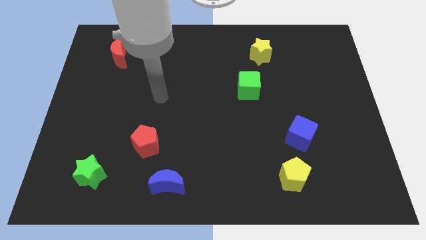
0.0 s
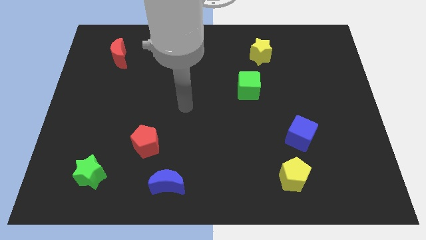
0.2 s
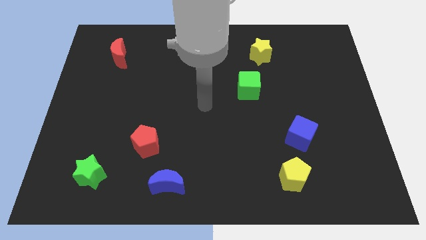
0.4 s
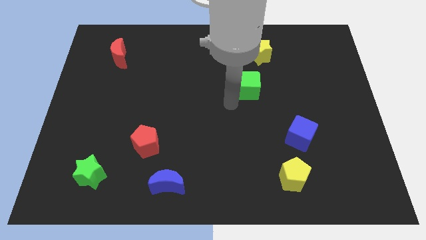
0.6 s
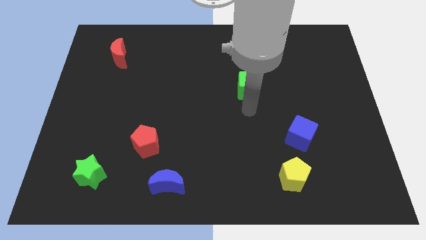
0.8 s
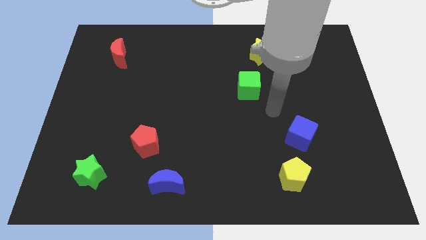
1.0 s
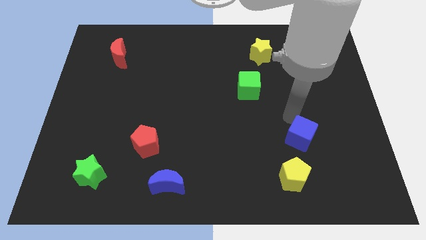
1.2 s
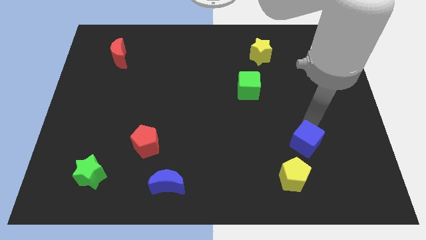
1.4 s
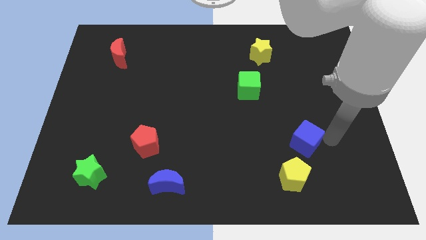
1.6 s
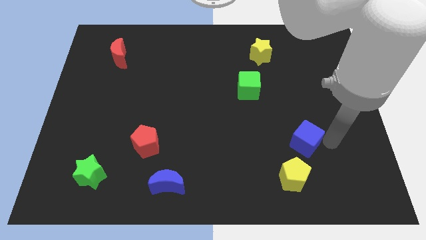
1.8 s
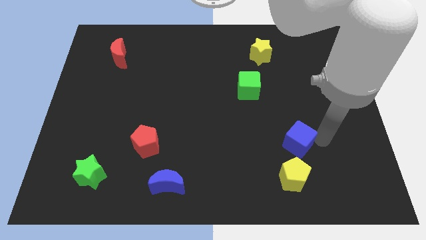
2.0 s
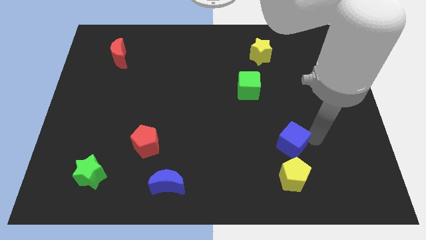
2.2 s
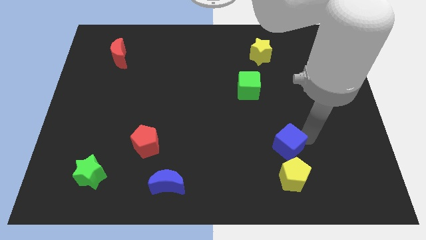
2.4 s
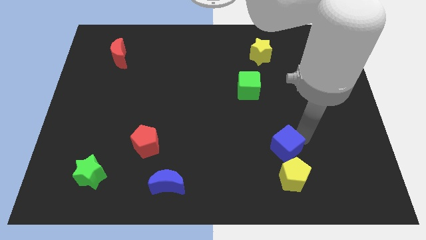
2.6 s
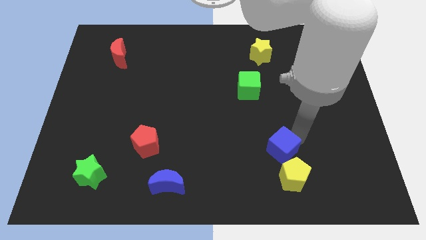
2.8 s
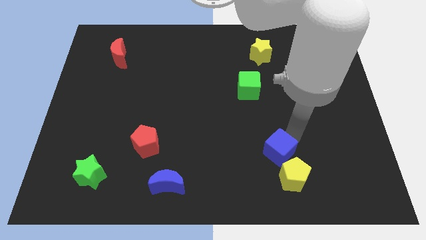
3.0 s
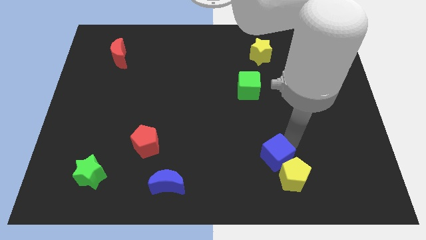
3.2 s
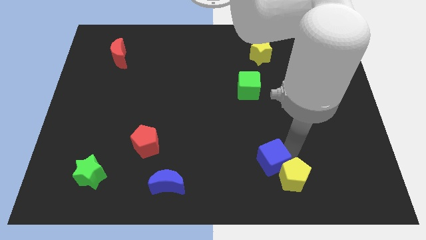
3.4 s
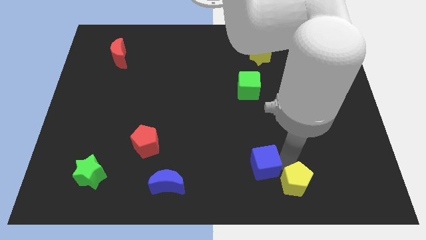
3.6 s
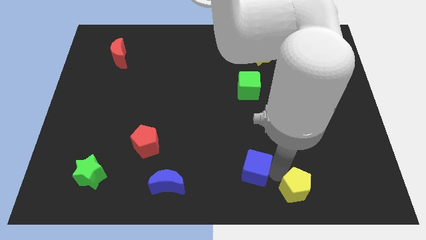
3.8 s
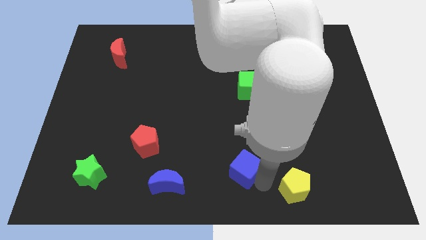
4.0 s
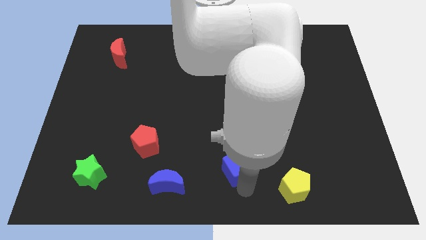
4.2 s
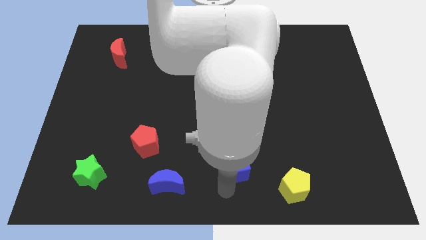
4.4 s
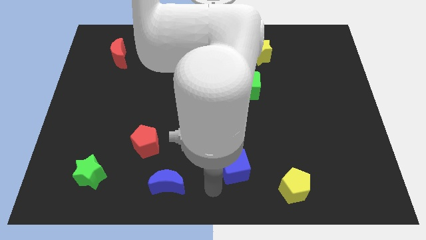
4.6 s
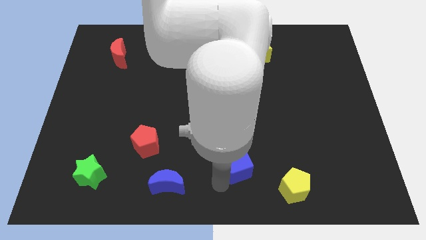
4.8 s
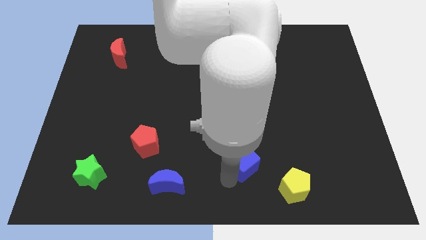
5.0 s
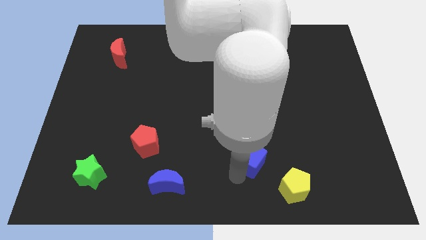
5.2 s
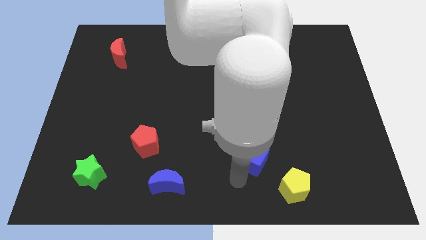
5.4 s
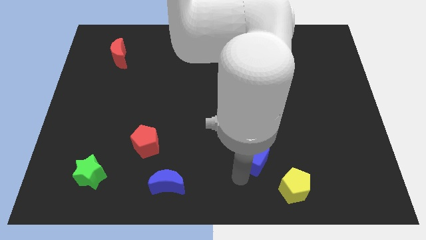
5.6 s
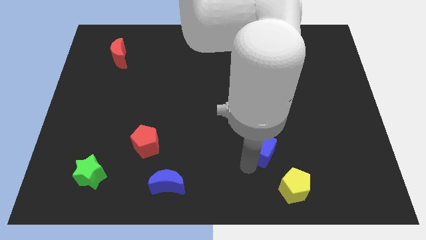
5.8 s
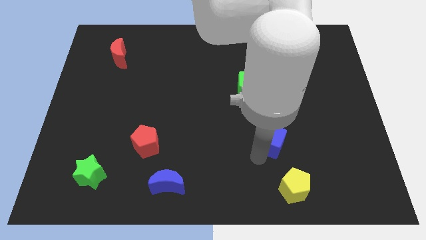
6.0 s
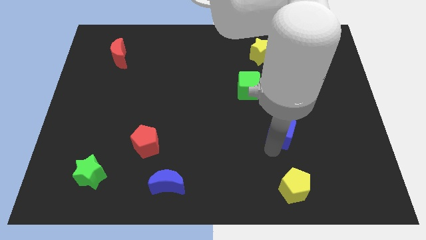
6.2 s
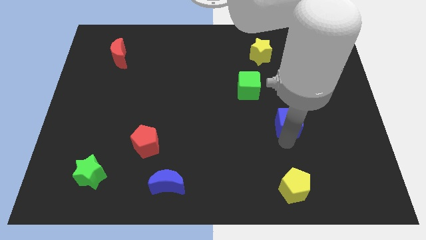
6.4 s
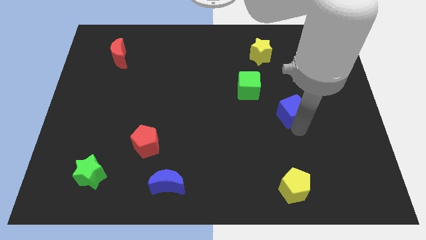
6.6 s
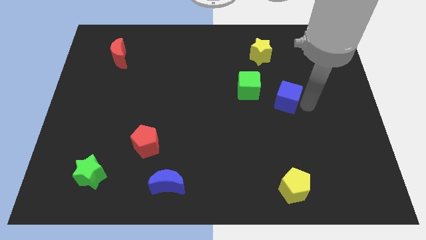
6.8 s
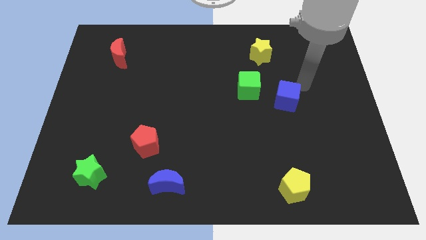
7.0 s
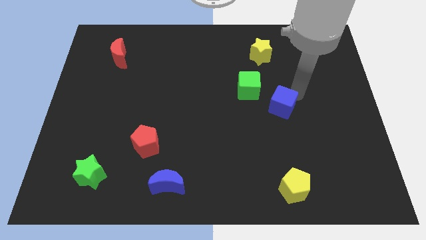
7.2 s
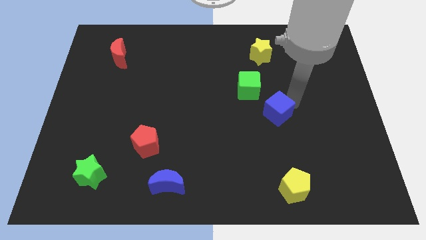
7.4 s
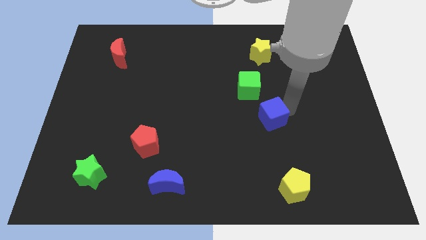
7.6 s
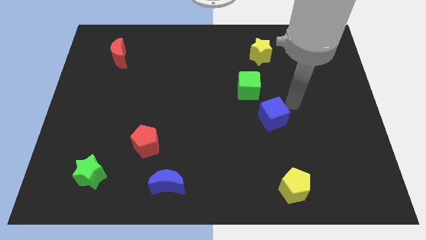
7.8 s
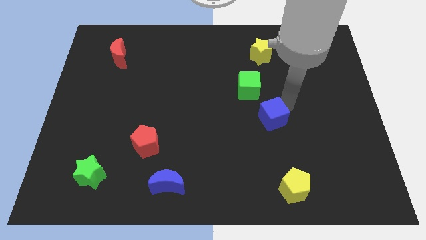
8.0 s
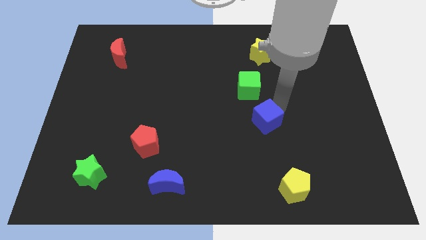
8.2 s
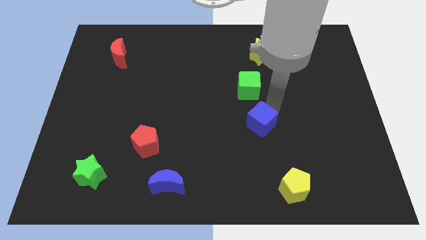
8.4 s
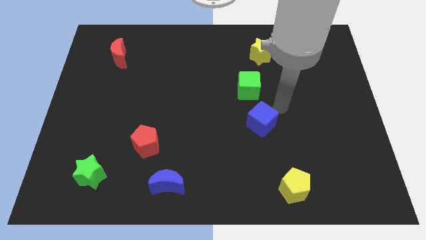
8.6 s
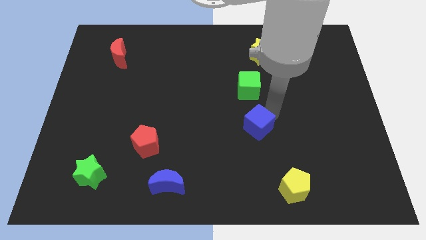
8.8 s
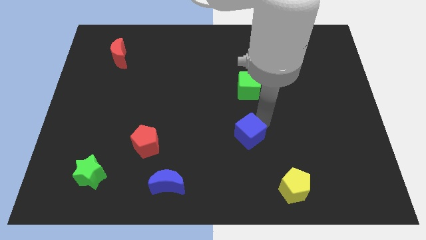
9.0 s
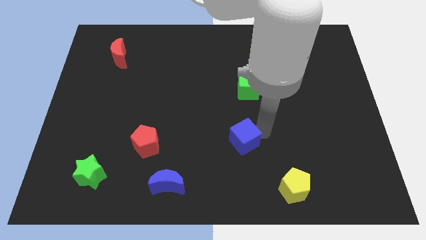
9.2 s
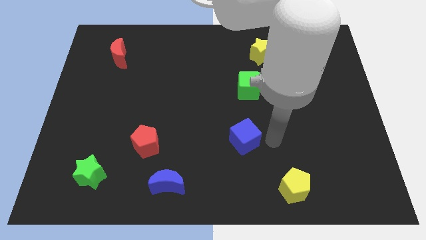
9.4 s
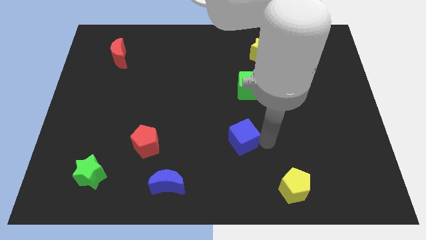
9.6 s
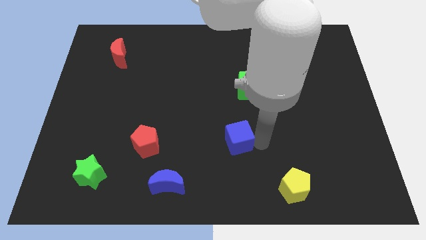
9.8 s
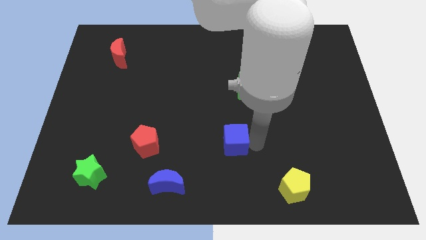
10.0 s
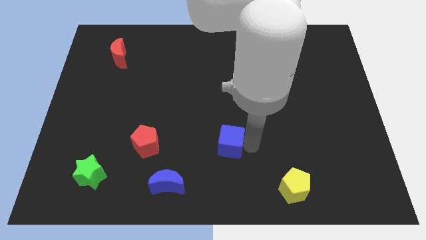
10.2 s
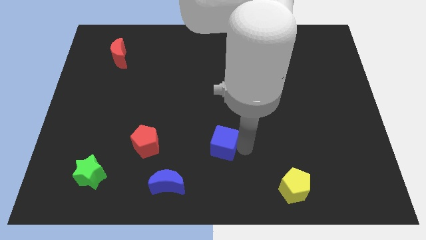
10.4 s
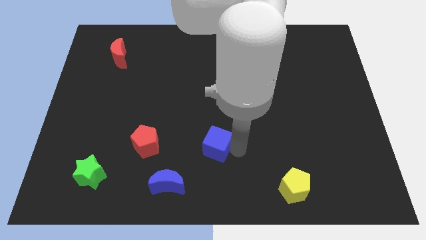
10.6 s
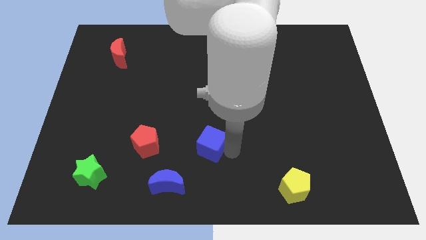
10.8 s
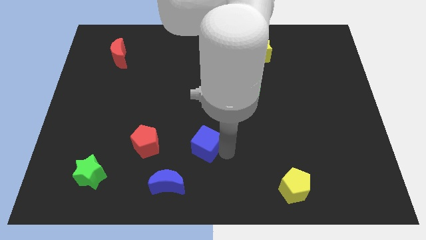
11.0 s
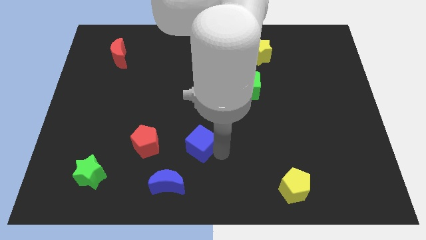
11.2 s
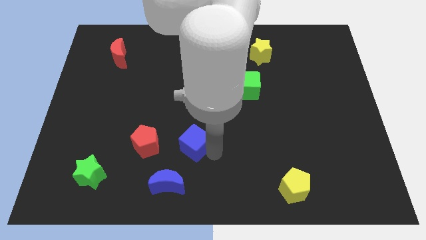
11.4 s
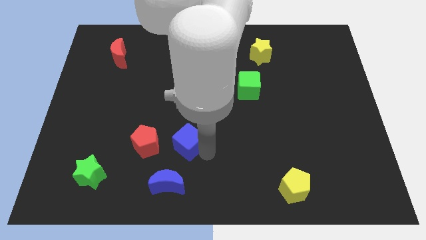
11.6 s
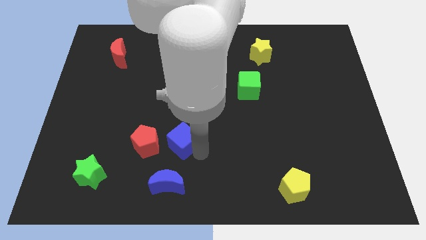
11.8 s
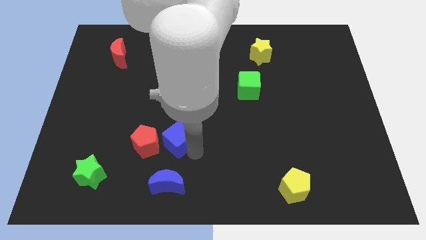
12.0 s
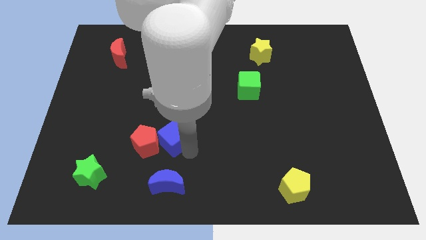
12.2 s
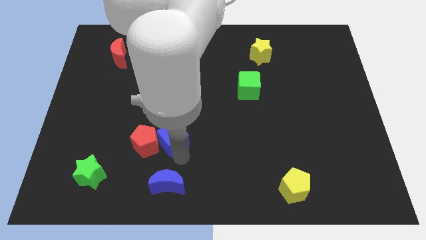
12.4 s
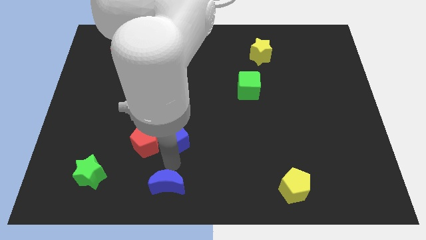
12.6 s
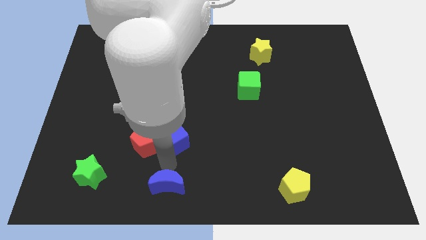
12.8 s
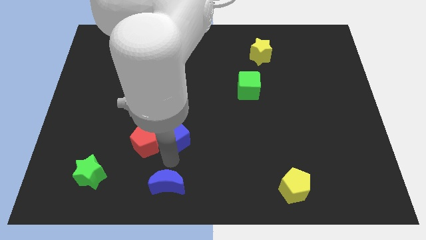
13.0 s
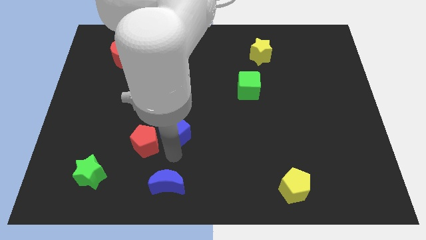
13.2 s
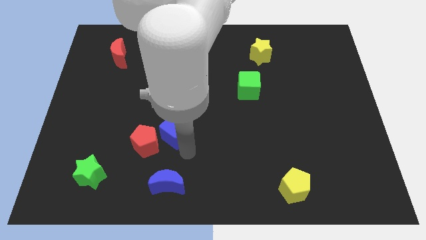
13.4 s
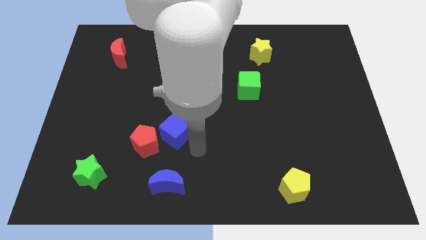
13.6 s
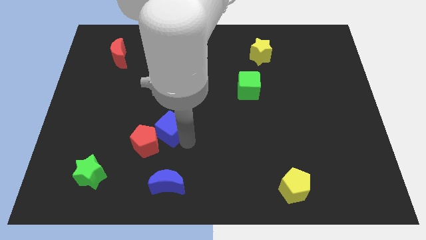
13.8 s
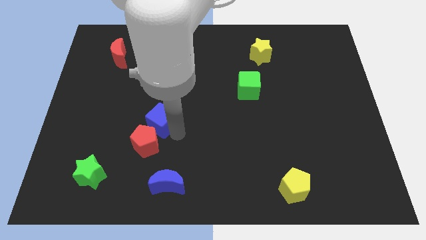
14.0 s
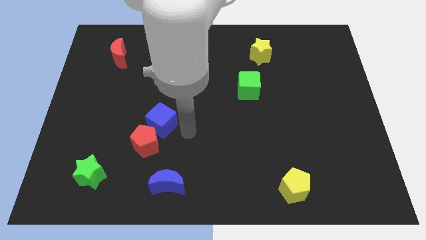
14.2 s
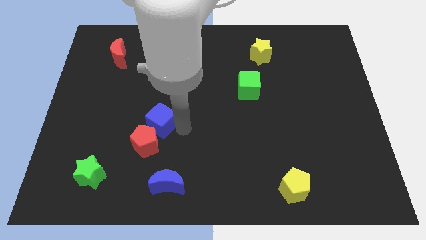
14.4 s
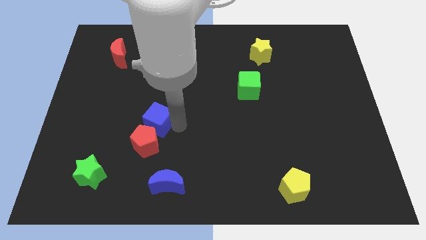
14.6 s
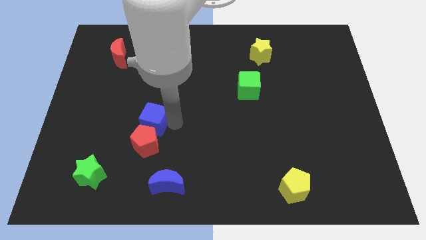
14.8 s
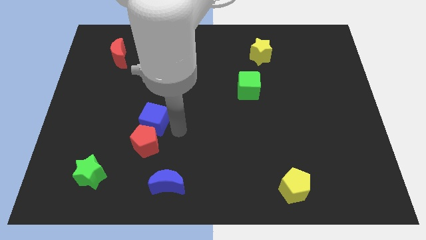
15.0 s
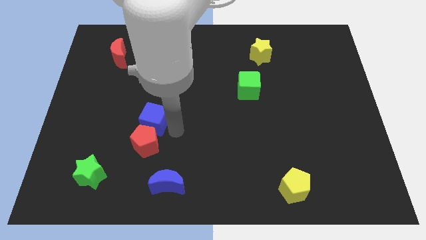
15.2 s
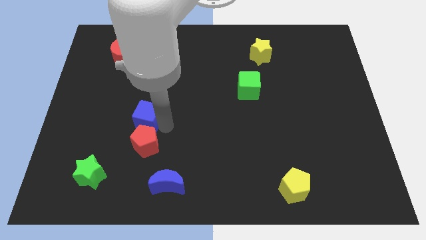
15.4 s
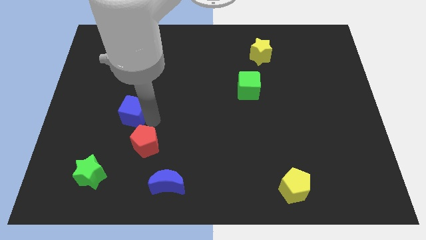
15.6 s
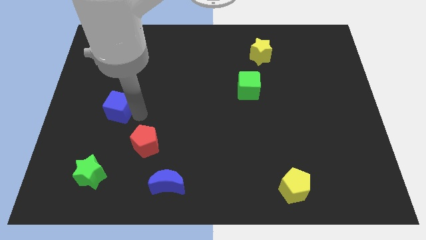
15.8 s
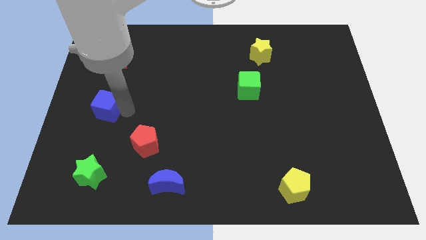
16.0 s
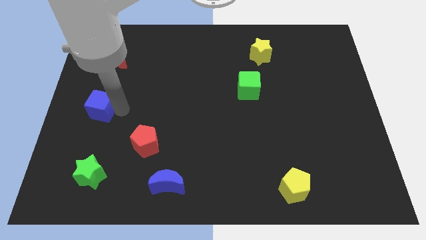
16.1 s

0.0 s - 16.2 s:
put the blue cube to the left side
